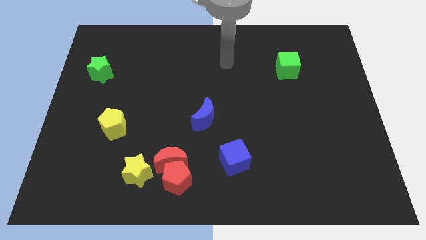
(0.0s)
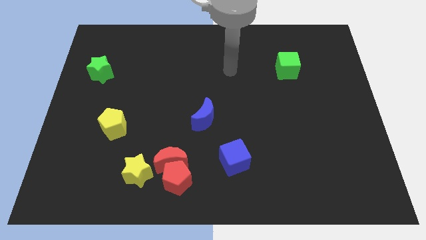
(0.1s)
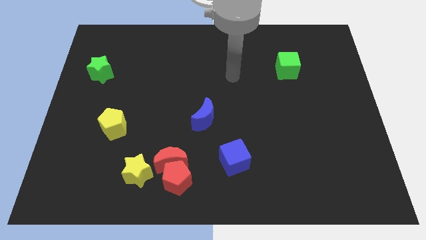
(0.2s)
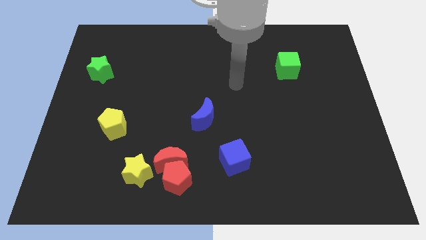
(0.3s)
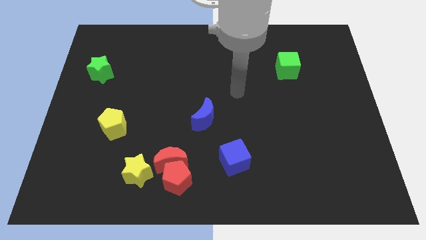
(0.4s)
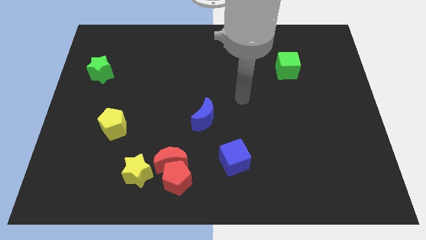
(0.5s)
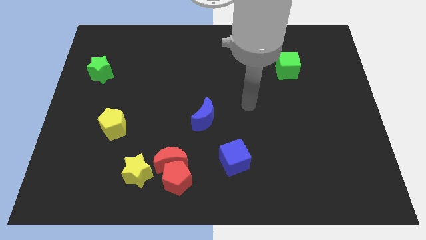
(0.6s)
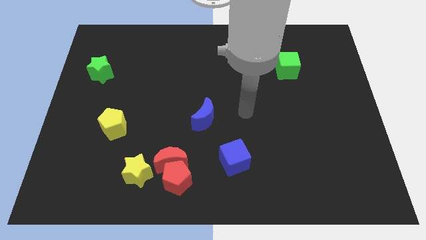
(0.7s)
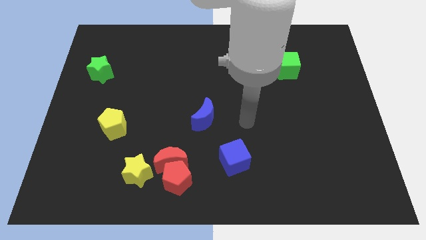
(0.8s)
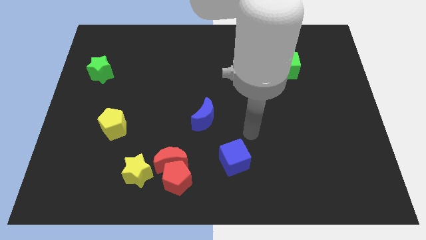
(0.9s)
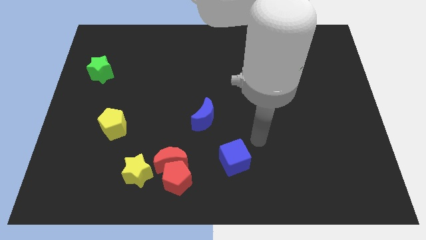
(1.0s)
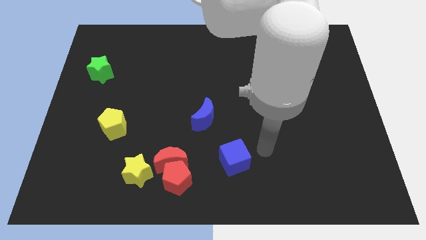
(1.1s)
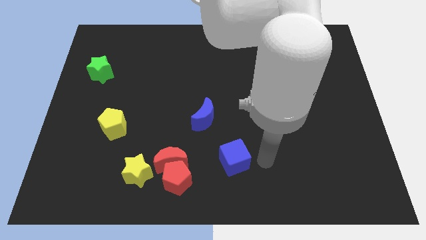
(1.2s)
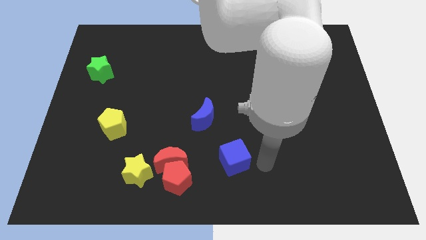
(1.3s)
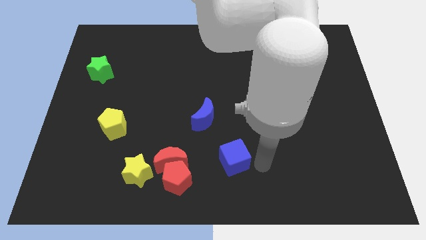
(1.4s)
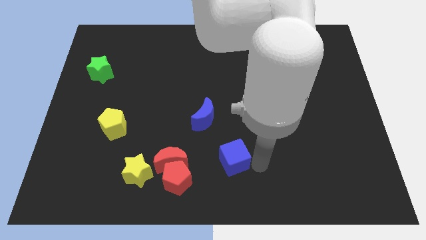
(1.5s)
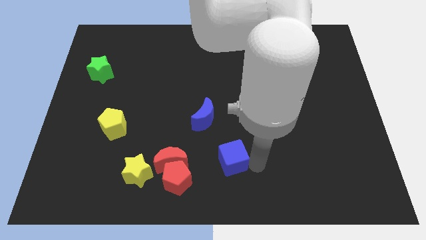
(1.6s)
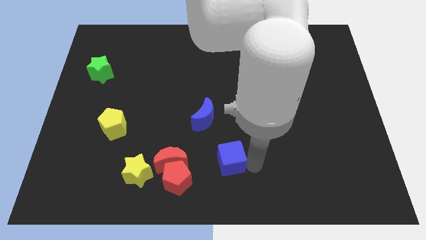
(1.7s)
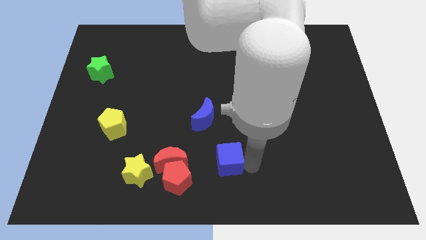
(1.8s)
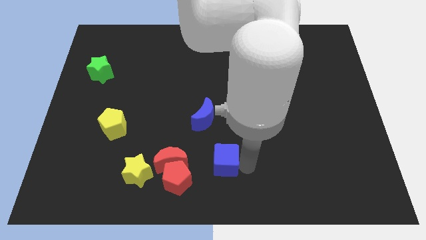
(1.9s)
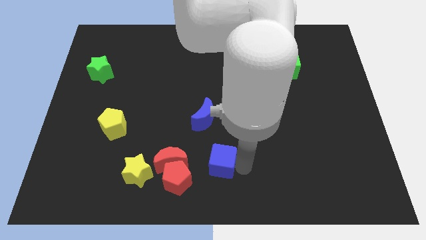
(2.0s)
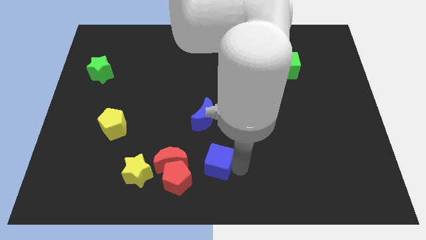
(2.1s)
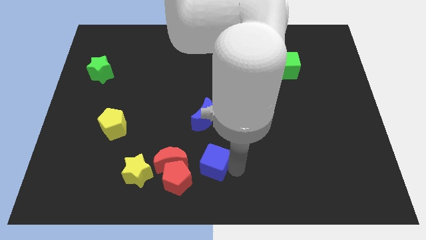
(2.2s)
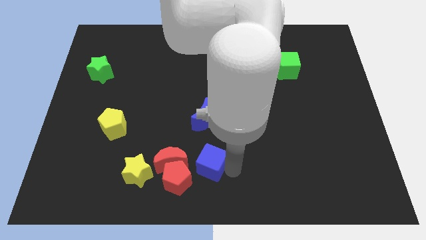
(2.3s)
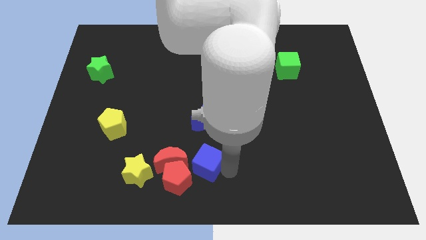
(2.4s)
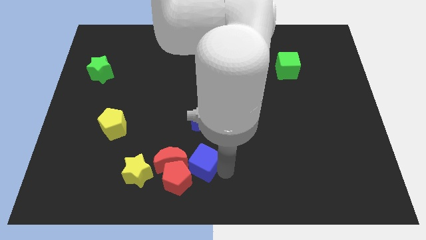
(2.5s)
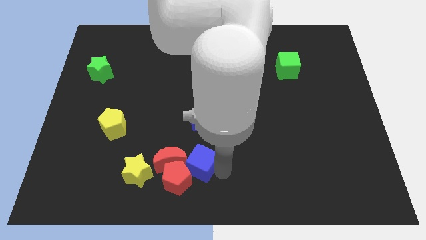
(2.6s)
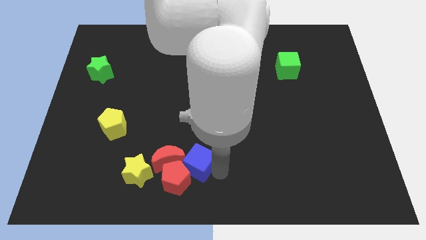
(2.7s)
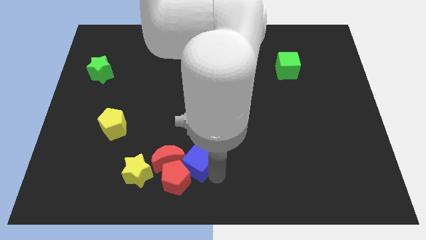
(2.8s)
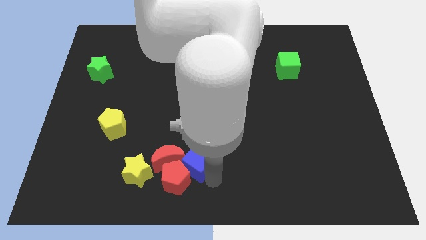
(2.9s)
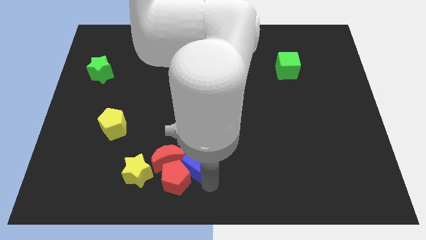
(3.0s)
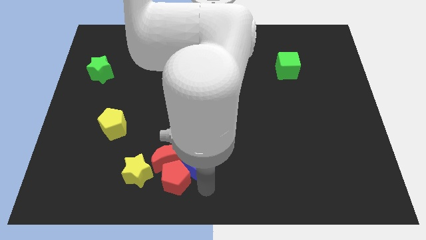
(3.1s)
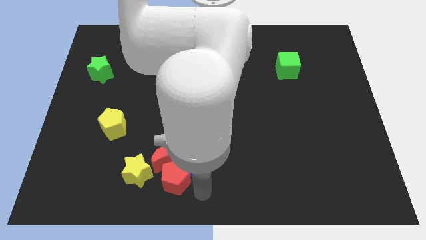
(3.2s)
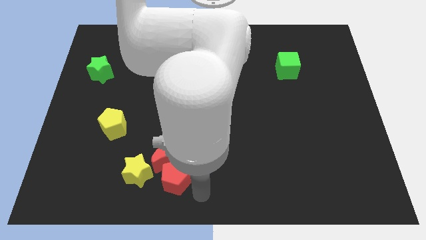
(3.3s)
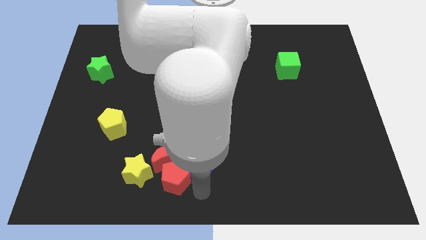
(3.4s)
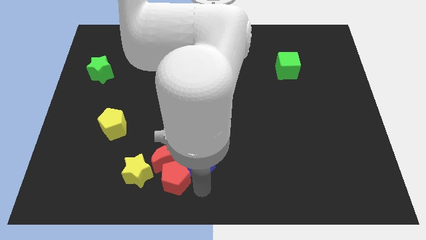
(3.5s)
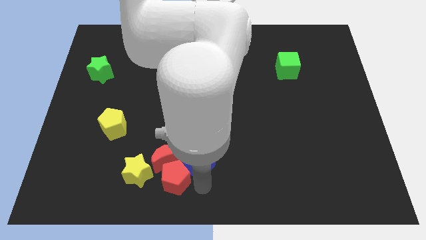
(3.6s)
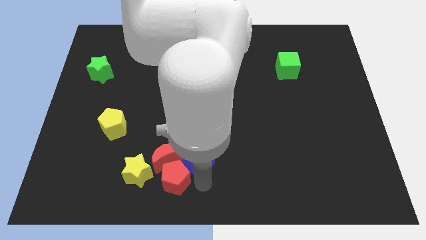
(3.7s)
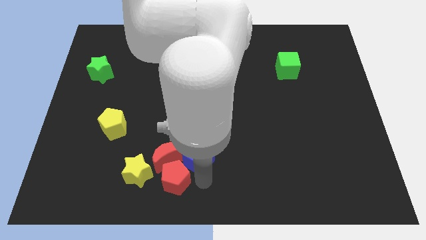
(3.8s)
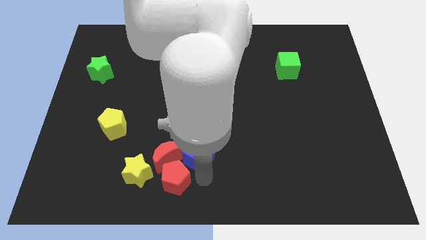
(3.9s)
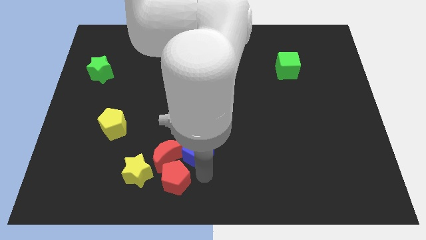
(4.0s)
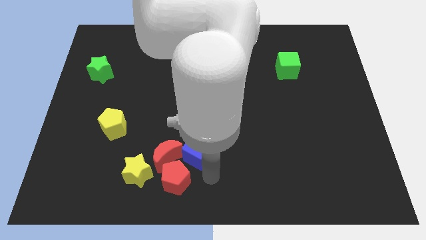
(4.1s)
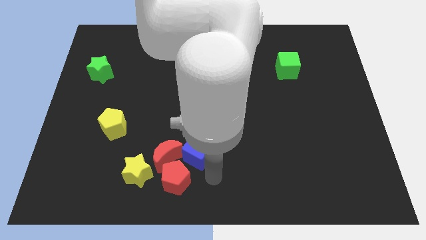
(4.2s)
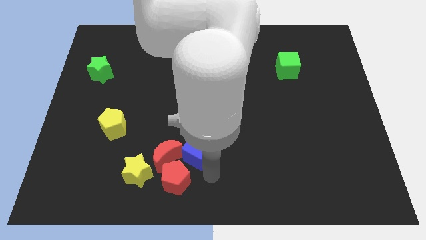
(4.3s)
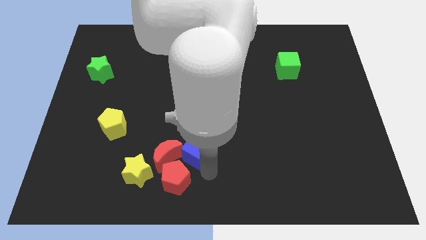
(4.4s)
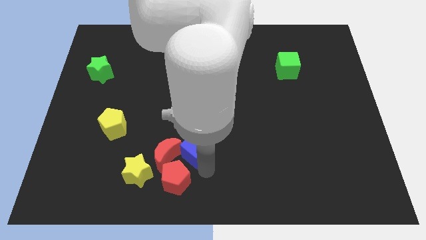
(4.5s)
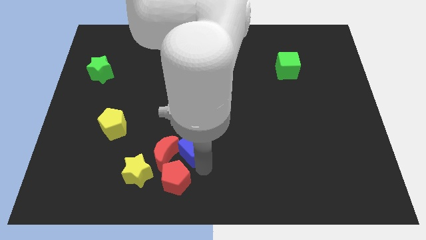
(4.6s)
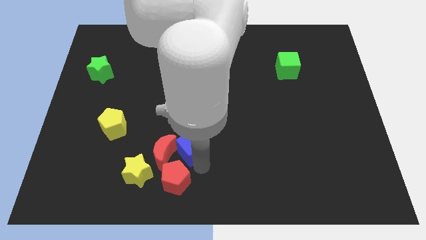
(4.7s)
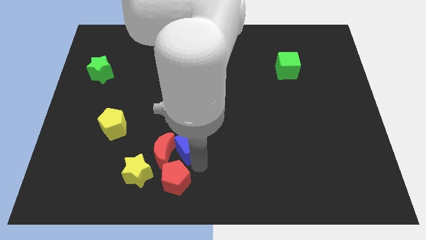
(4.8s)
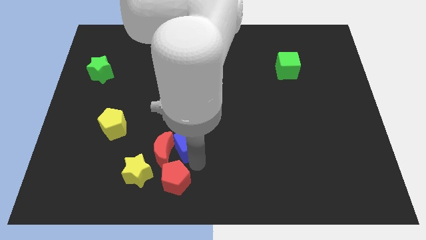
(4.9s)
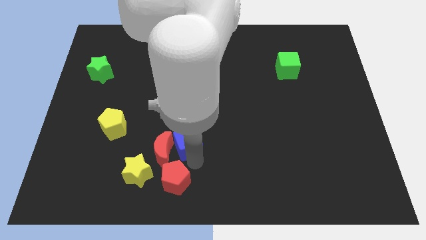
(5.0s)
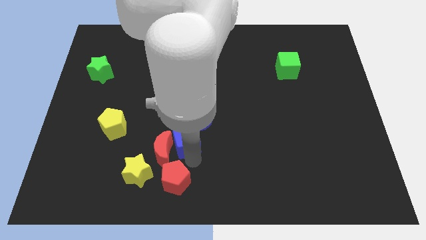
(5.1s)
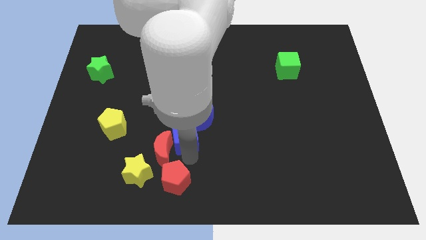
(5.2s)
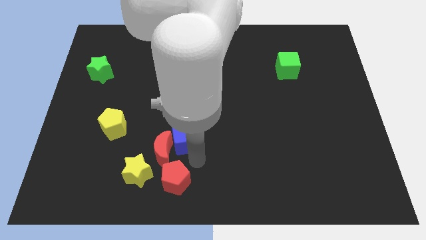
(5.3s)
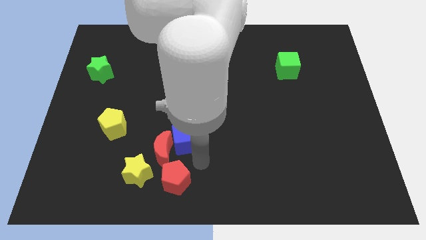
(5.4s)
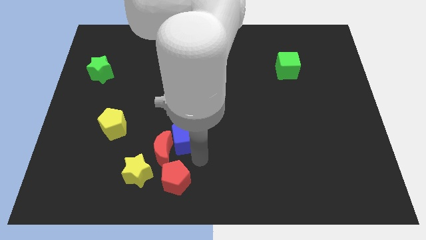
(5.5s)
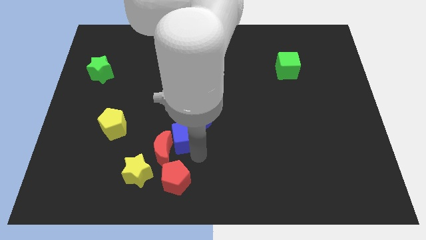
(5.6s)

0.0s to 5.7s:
put the blue cube to the top of the red moon

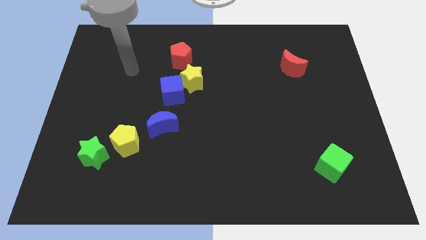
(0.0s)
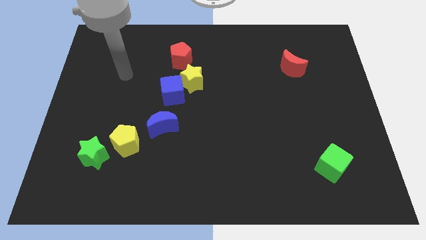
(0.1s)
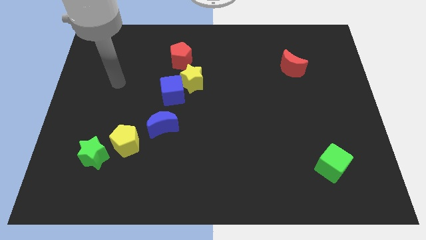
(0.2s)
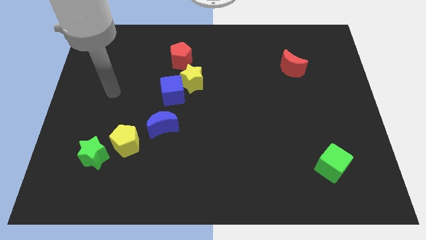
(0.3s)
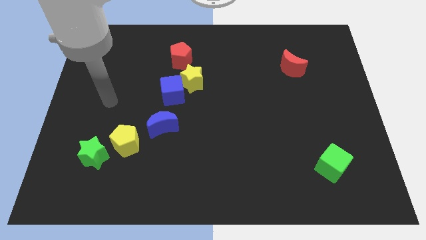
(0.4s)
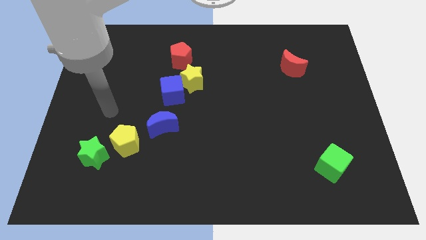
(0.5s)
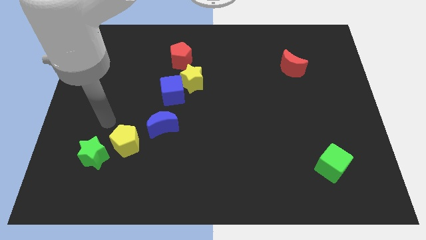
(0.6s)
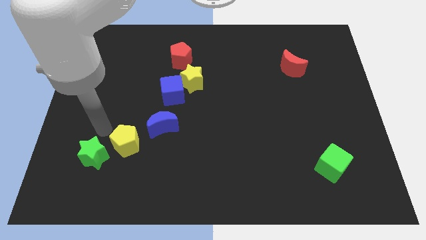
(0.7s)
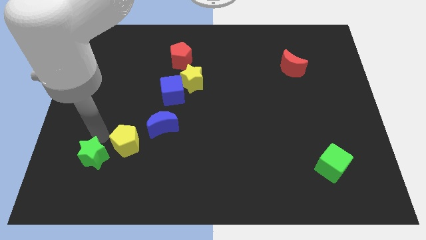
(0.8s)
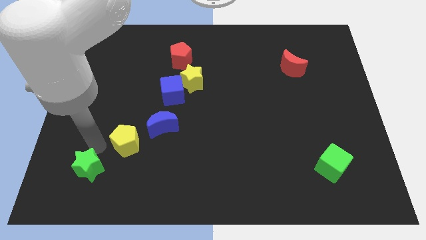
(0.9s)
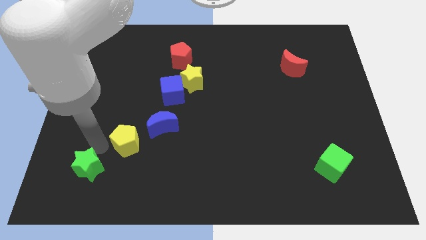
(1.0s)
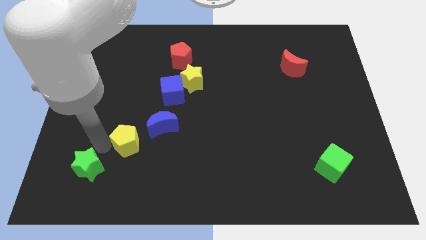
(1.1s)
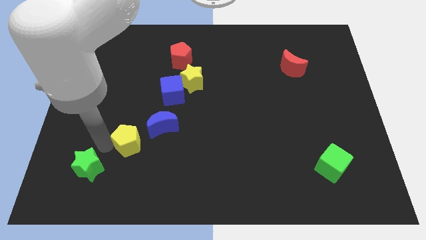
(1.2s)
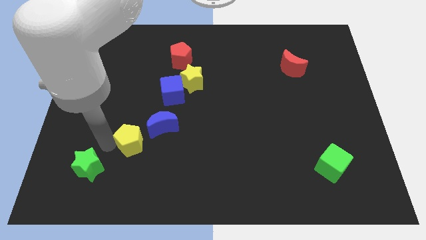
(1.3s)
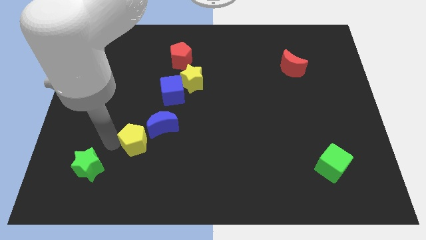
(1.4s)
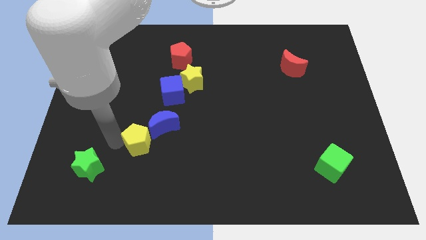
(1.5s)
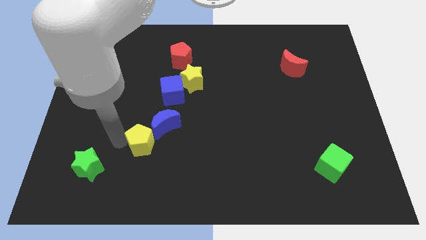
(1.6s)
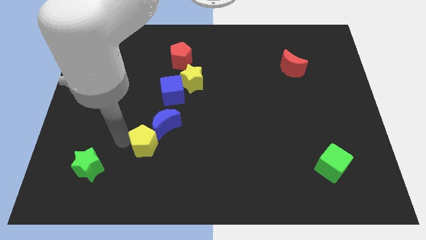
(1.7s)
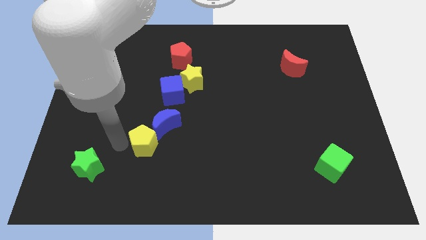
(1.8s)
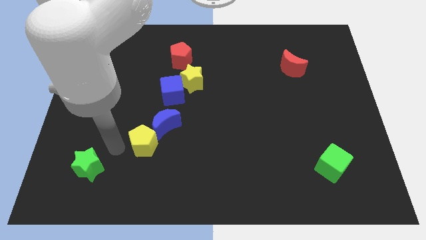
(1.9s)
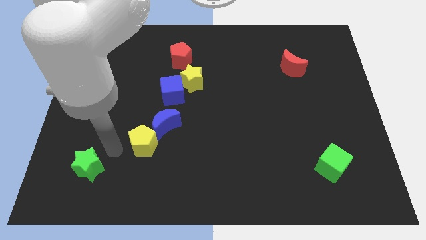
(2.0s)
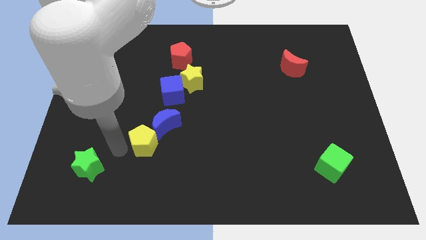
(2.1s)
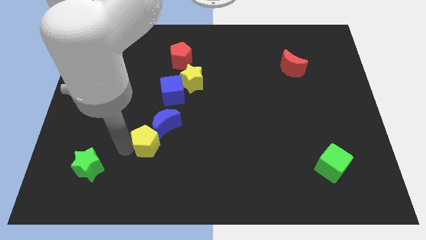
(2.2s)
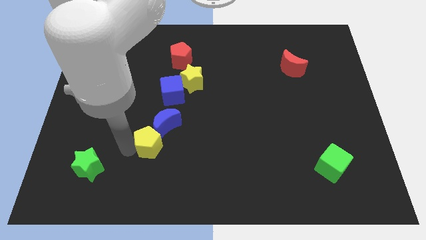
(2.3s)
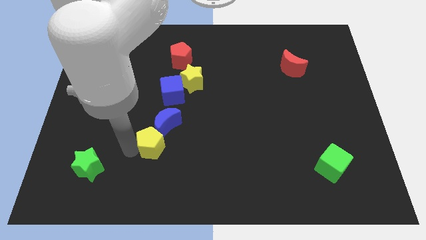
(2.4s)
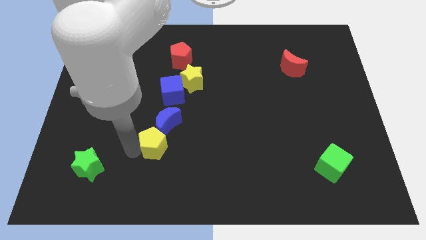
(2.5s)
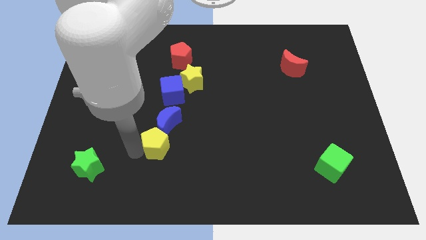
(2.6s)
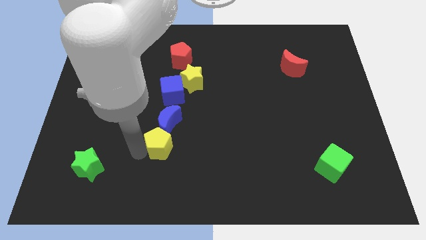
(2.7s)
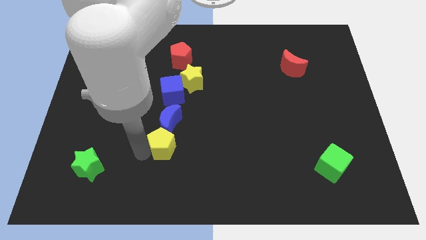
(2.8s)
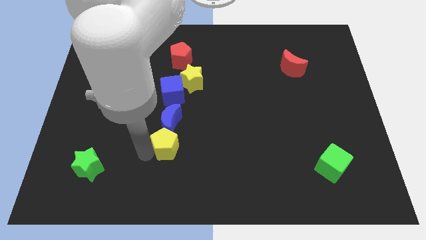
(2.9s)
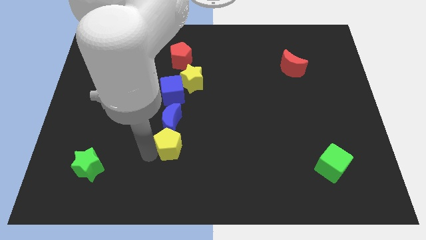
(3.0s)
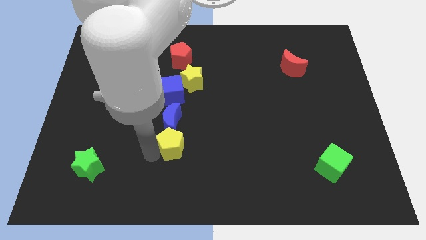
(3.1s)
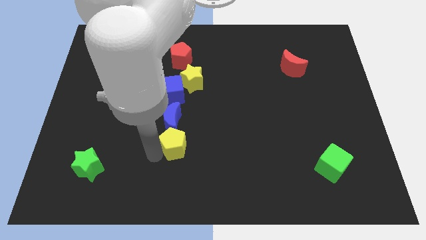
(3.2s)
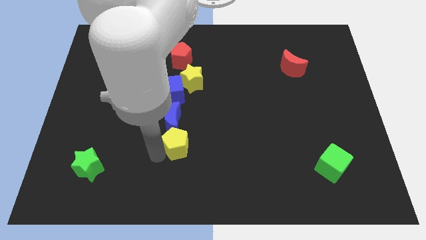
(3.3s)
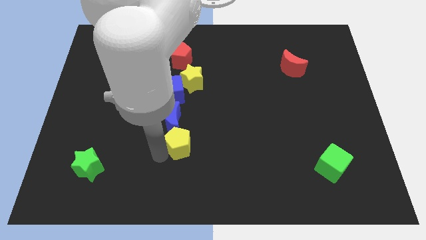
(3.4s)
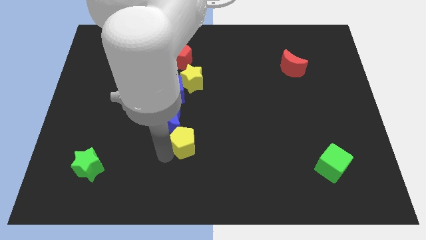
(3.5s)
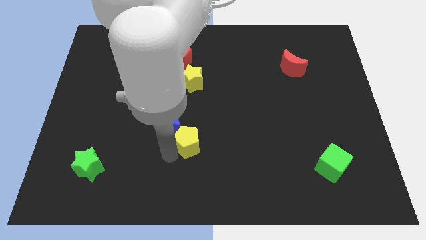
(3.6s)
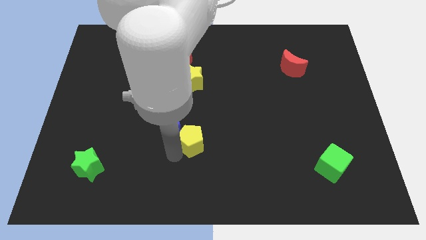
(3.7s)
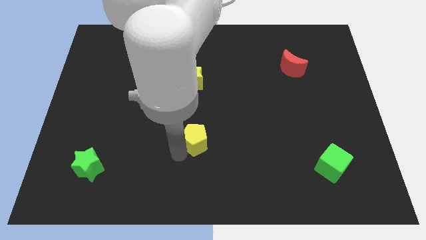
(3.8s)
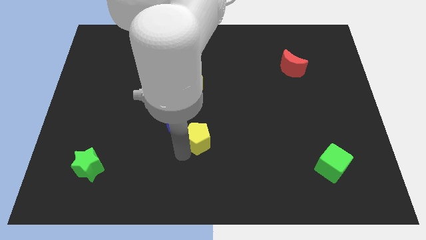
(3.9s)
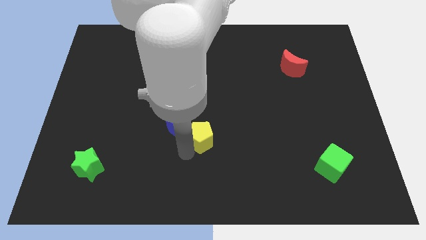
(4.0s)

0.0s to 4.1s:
push the yellow pentagon to the right side of the blue moon
